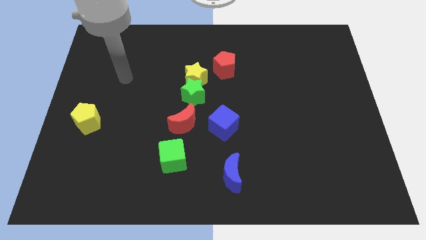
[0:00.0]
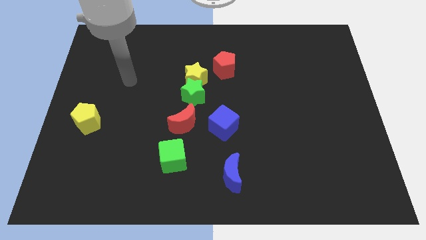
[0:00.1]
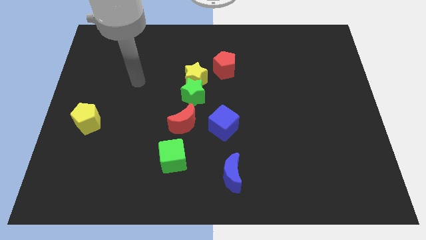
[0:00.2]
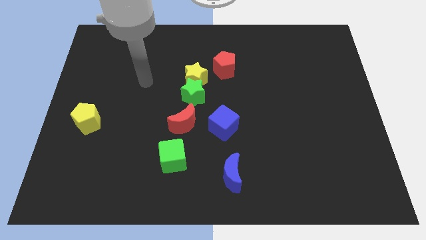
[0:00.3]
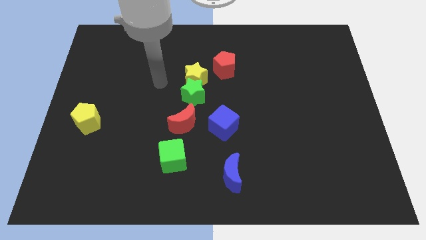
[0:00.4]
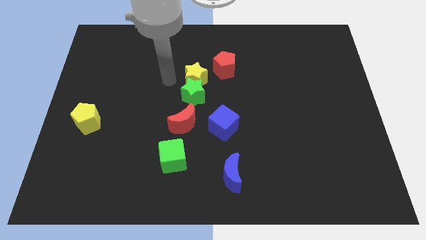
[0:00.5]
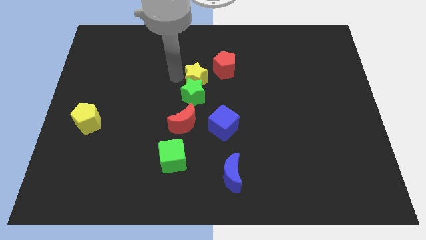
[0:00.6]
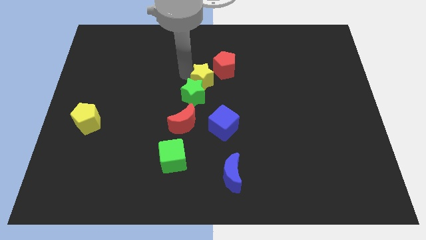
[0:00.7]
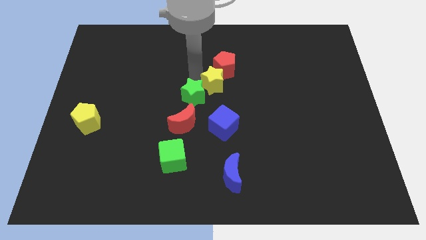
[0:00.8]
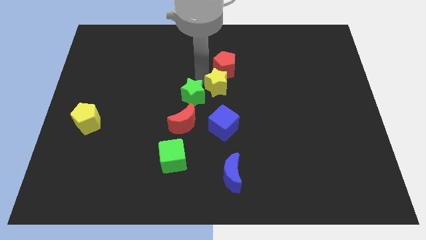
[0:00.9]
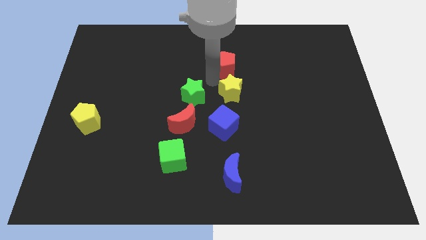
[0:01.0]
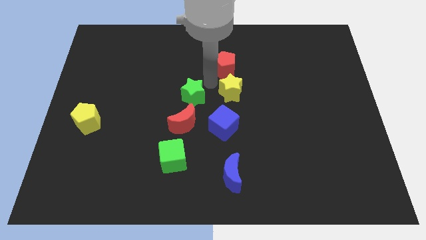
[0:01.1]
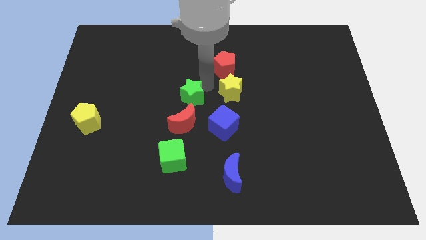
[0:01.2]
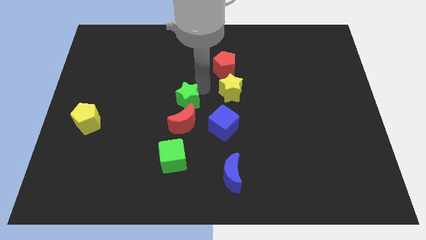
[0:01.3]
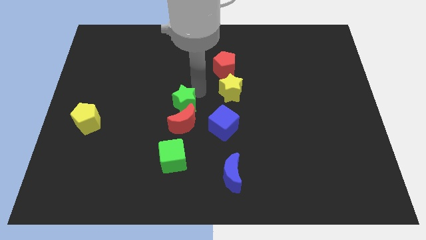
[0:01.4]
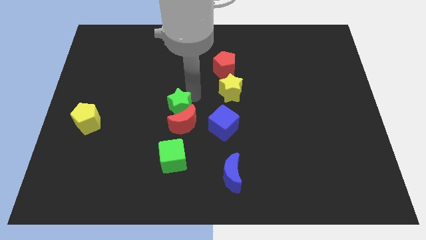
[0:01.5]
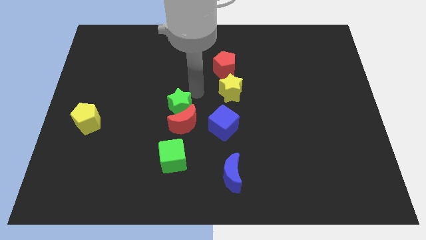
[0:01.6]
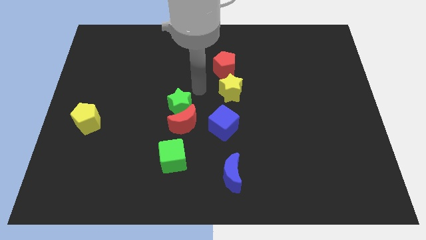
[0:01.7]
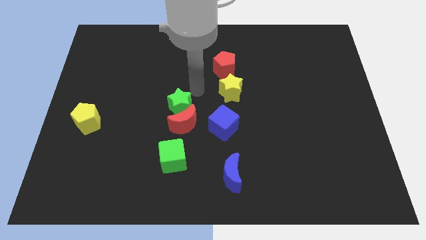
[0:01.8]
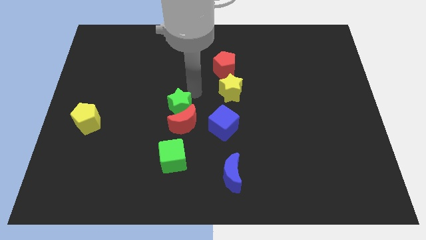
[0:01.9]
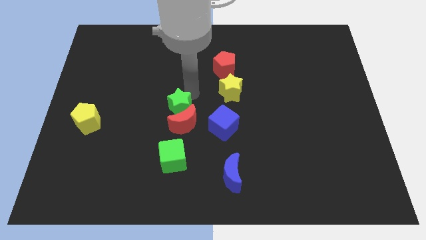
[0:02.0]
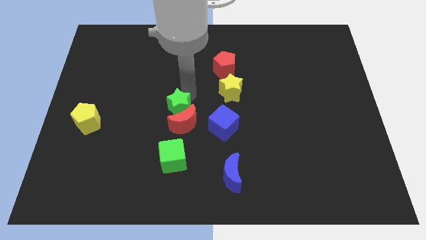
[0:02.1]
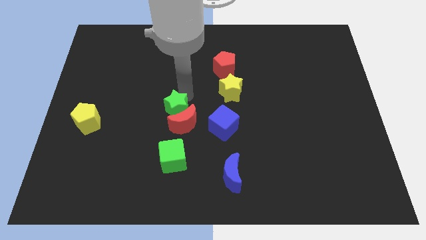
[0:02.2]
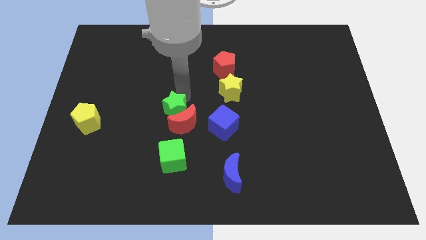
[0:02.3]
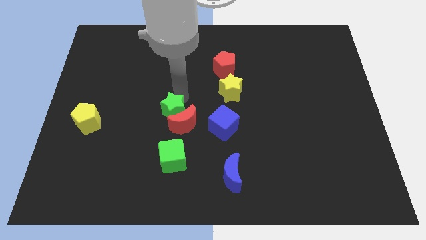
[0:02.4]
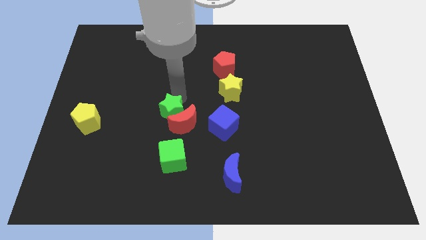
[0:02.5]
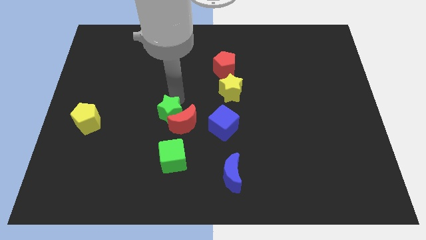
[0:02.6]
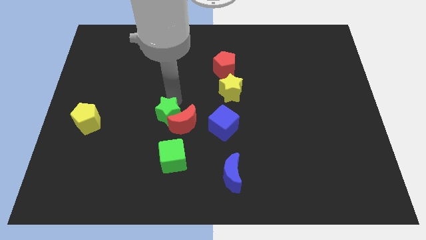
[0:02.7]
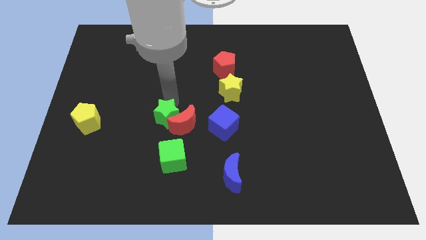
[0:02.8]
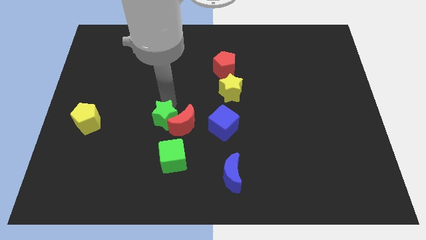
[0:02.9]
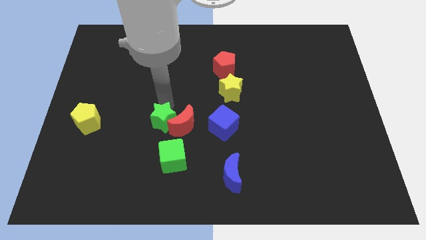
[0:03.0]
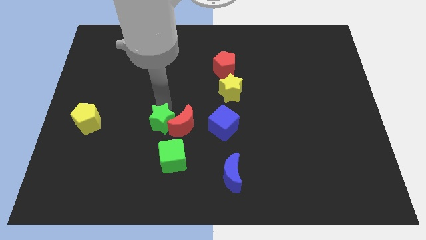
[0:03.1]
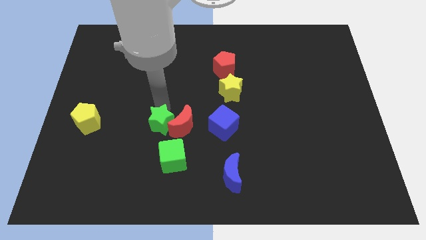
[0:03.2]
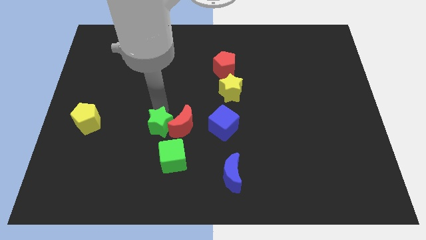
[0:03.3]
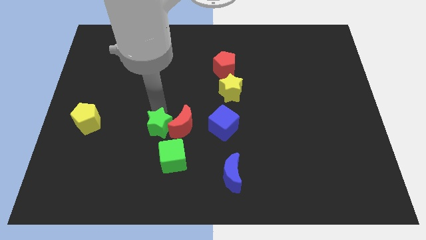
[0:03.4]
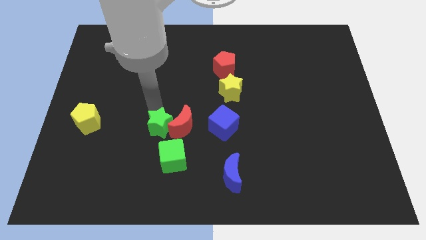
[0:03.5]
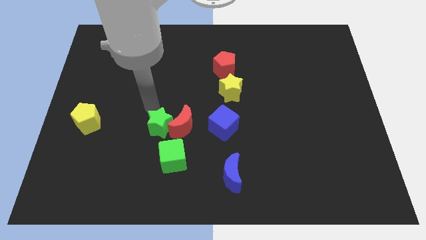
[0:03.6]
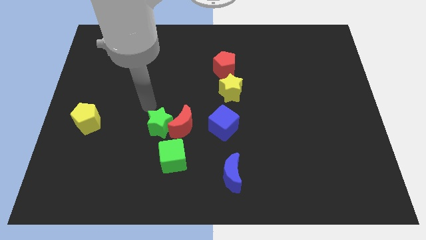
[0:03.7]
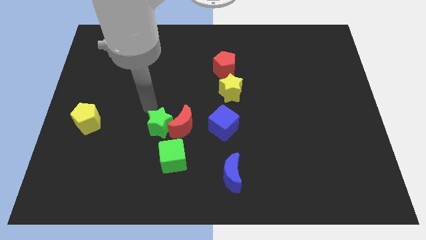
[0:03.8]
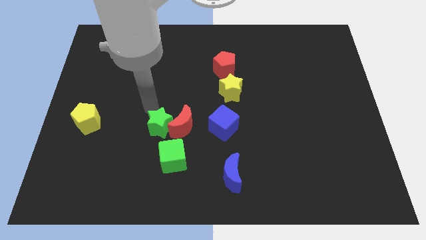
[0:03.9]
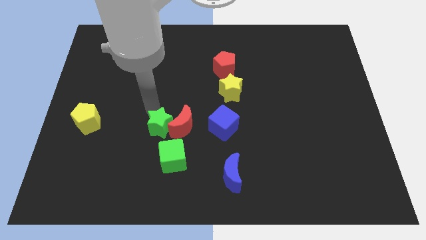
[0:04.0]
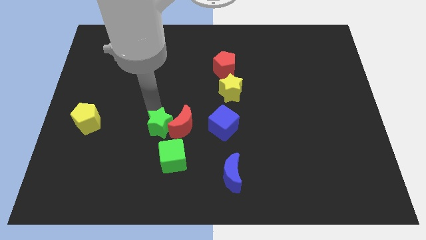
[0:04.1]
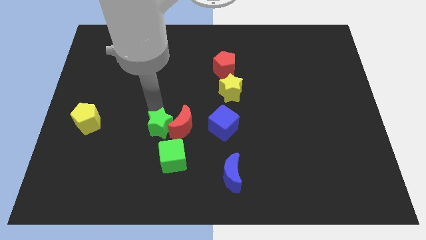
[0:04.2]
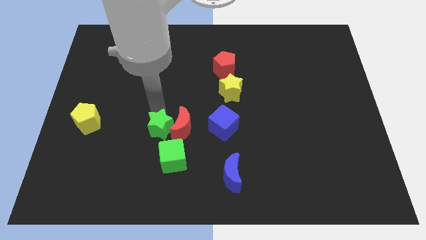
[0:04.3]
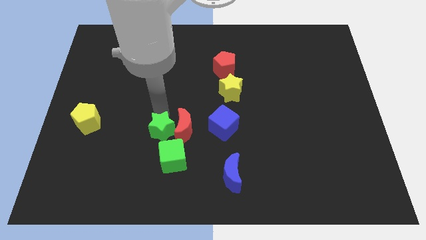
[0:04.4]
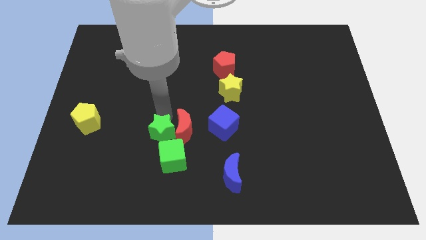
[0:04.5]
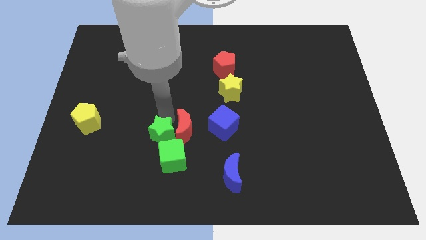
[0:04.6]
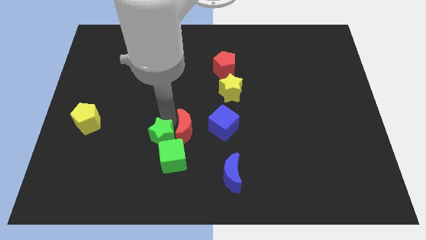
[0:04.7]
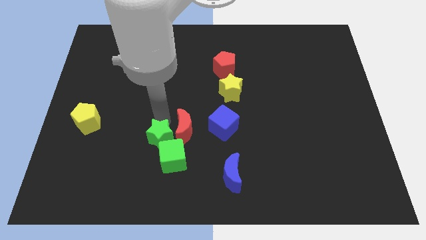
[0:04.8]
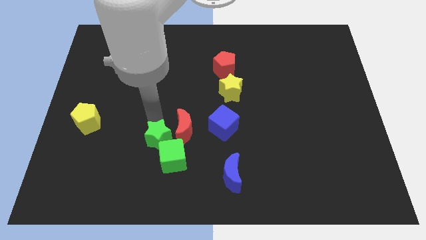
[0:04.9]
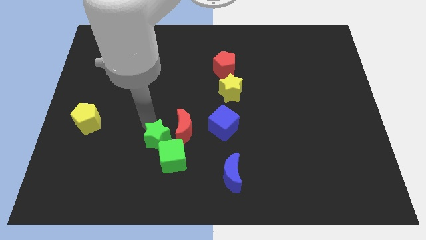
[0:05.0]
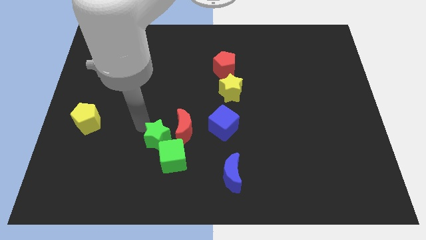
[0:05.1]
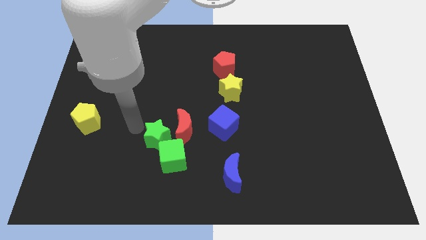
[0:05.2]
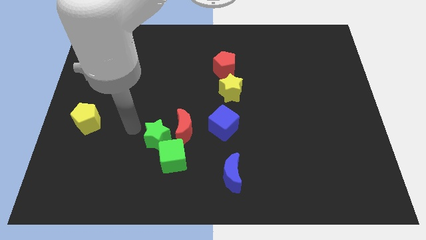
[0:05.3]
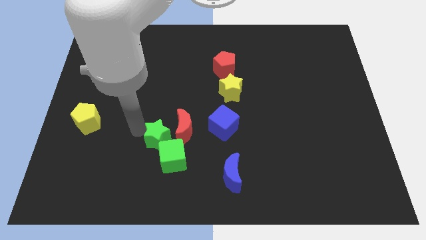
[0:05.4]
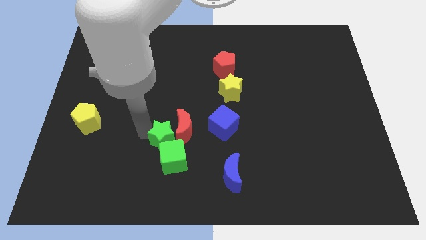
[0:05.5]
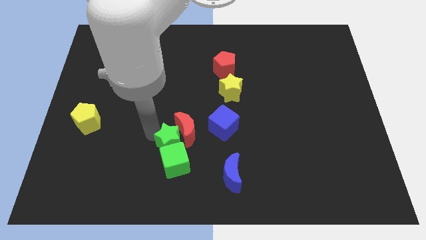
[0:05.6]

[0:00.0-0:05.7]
put the green star below the red moon

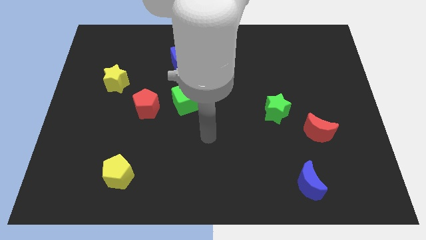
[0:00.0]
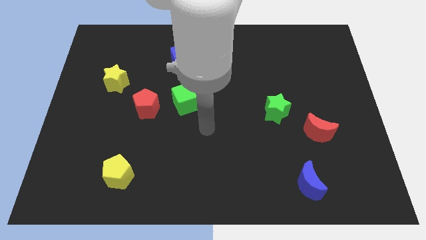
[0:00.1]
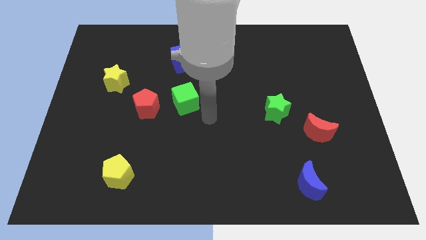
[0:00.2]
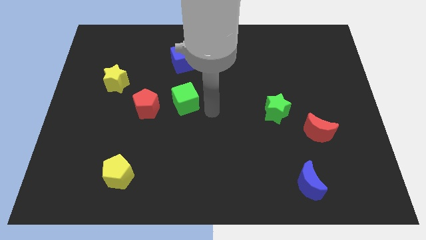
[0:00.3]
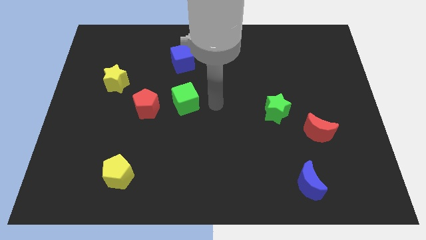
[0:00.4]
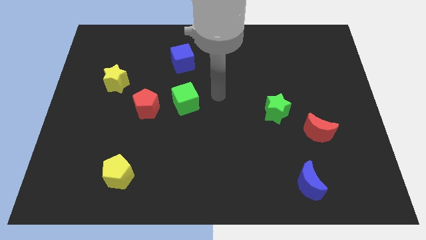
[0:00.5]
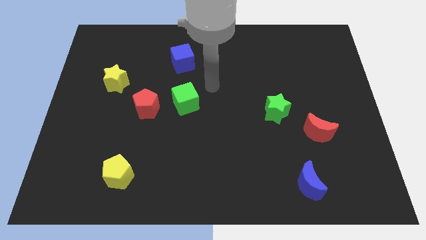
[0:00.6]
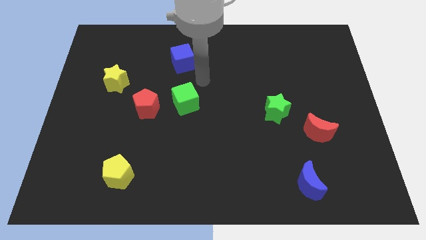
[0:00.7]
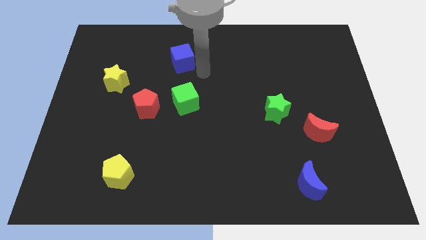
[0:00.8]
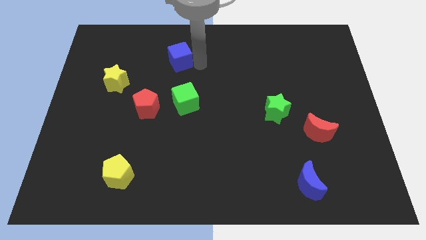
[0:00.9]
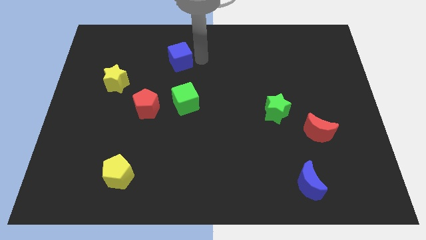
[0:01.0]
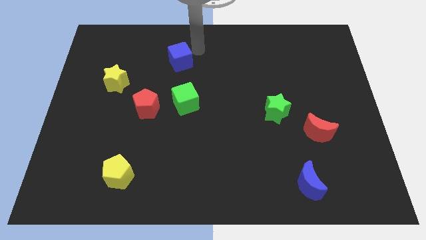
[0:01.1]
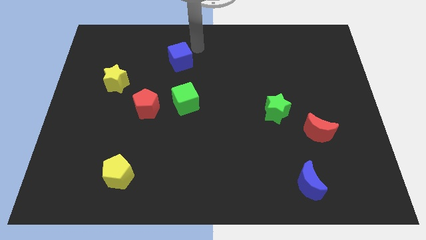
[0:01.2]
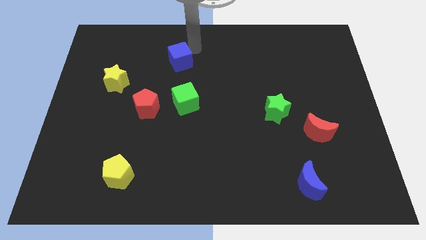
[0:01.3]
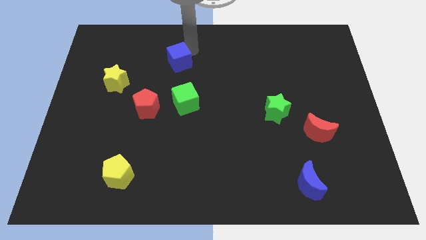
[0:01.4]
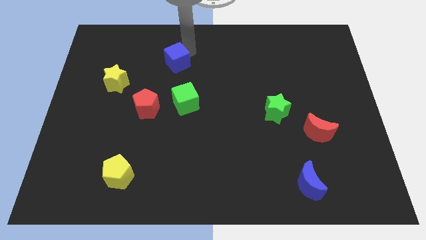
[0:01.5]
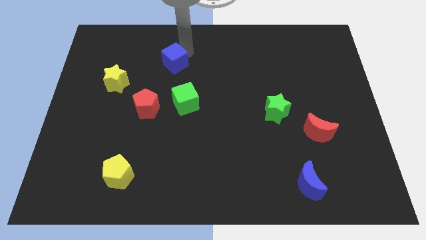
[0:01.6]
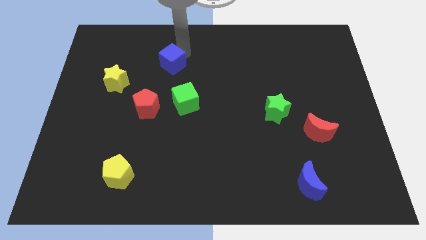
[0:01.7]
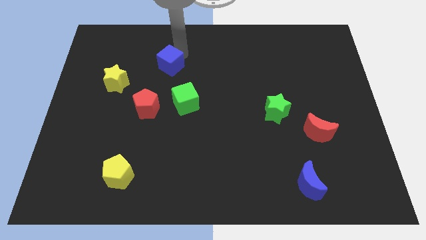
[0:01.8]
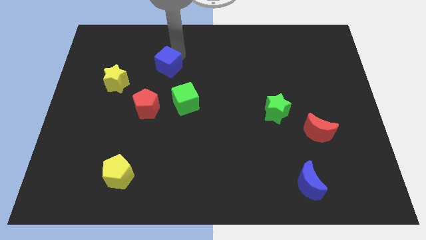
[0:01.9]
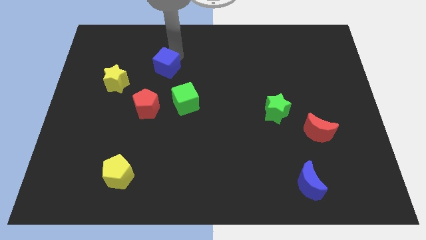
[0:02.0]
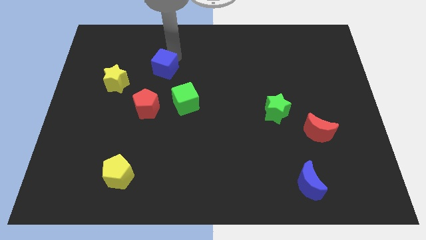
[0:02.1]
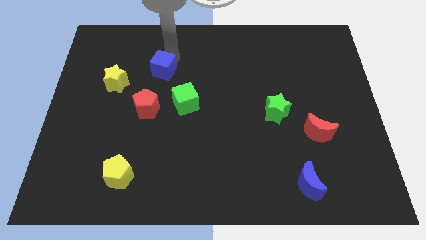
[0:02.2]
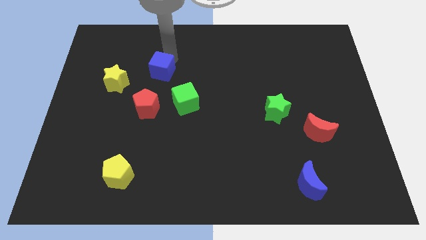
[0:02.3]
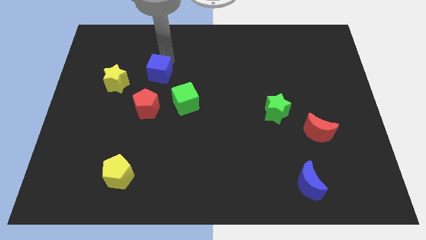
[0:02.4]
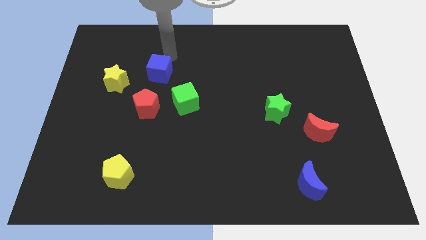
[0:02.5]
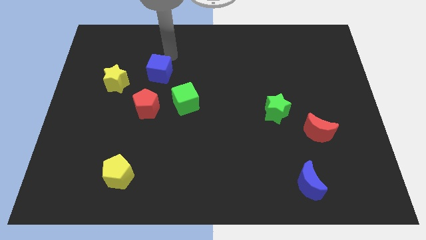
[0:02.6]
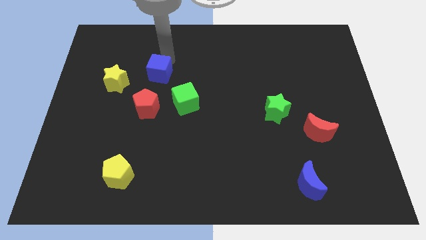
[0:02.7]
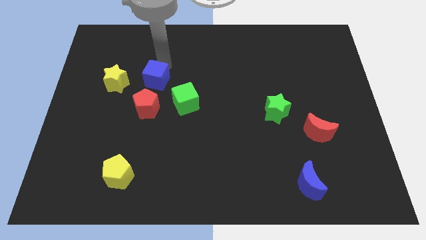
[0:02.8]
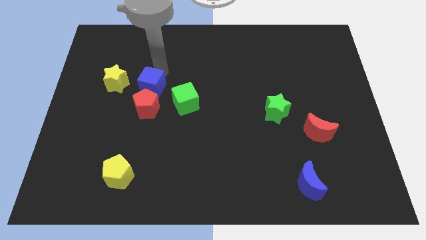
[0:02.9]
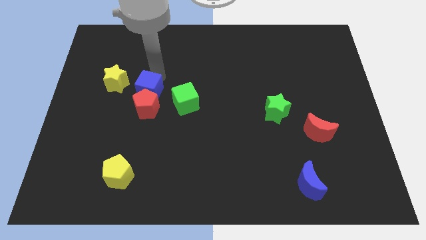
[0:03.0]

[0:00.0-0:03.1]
slide the blue cube left of the green cube
